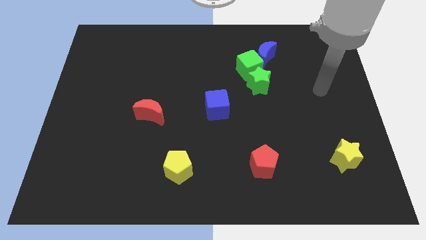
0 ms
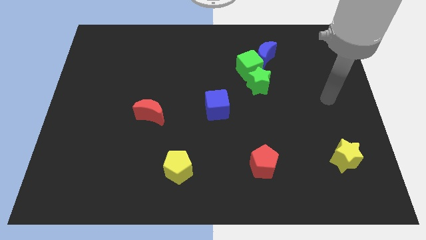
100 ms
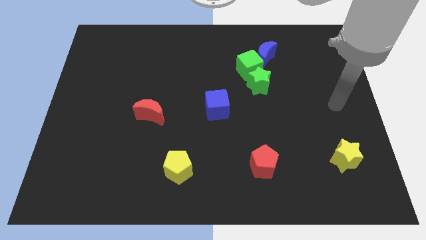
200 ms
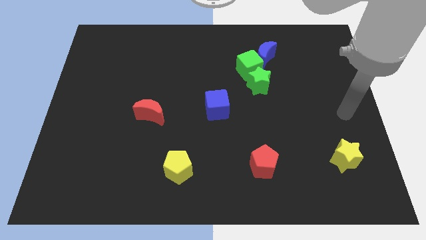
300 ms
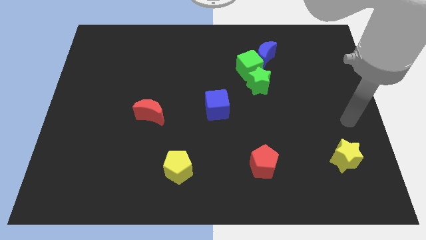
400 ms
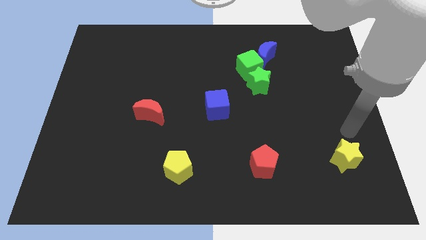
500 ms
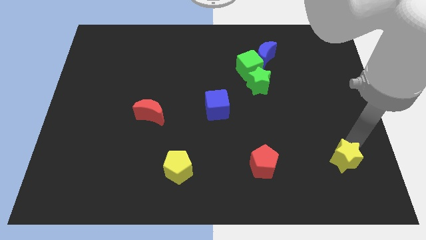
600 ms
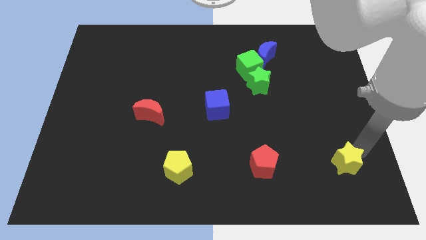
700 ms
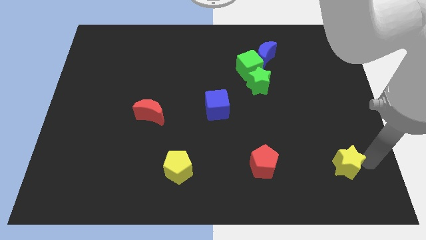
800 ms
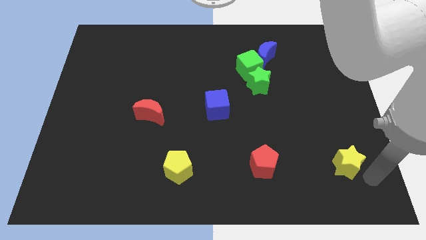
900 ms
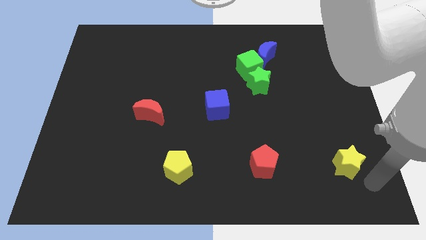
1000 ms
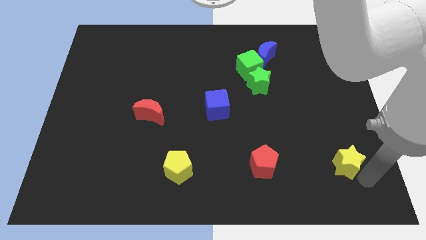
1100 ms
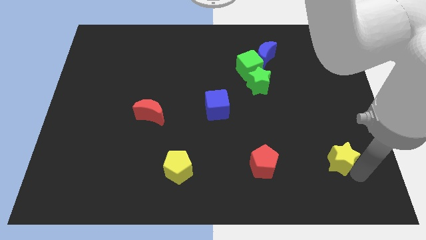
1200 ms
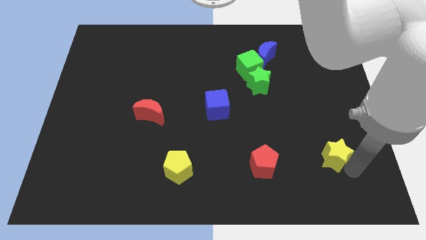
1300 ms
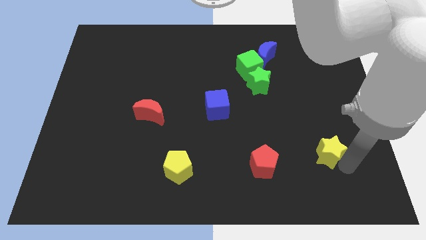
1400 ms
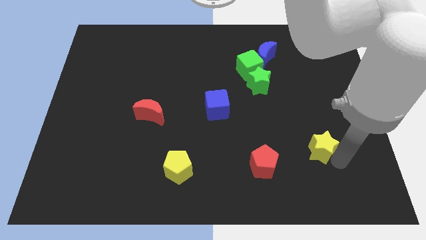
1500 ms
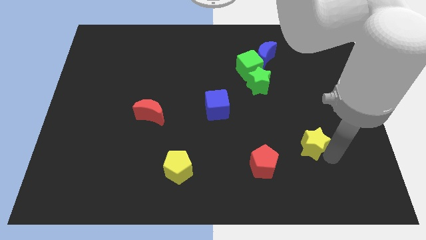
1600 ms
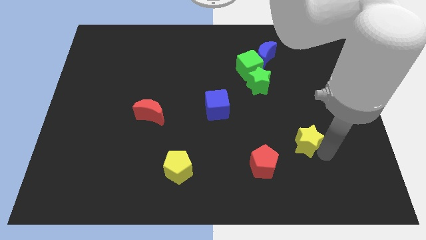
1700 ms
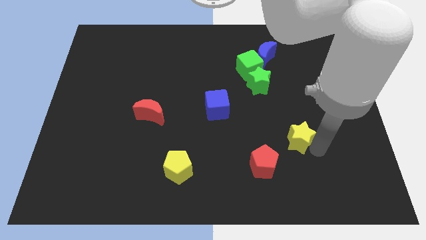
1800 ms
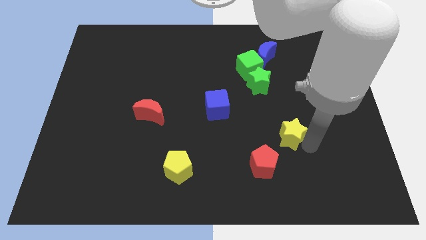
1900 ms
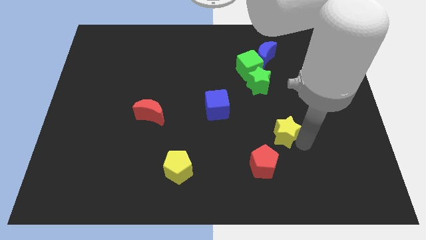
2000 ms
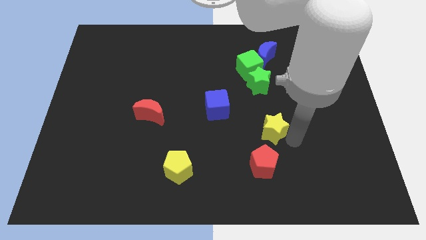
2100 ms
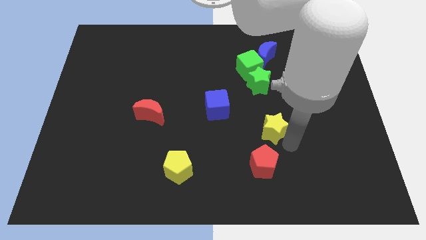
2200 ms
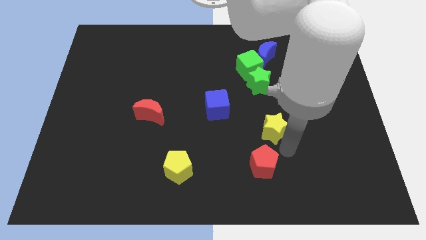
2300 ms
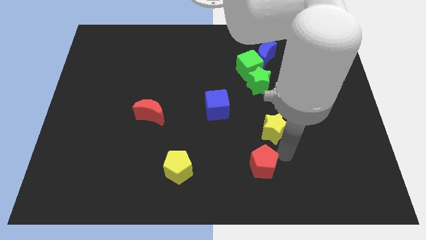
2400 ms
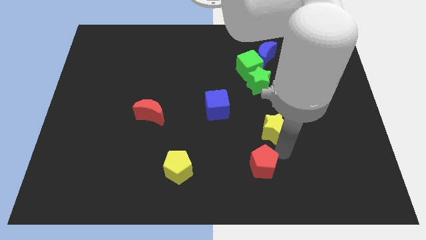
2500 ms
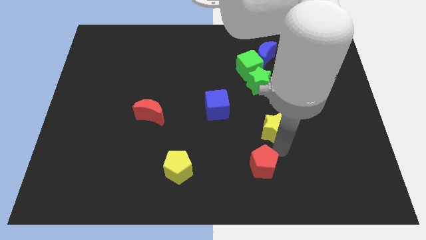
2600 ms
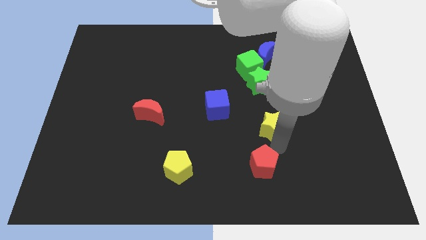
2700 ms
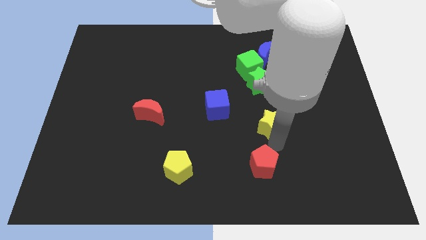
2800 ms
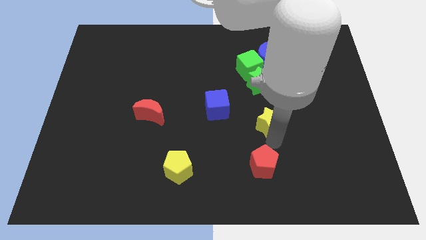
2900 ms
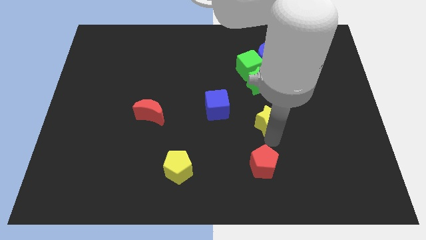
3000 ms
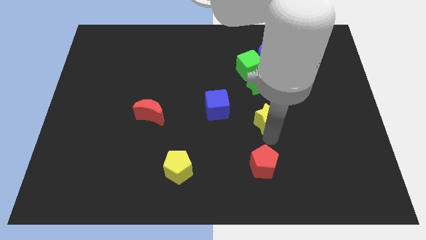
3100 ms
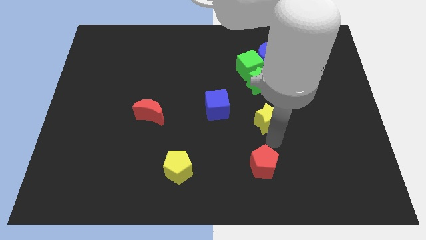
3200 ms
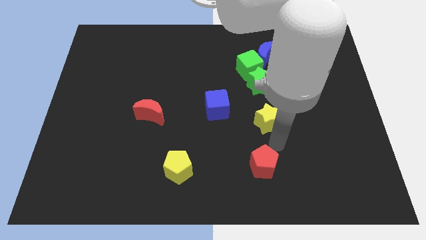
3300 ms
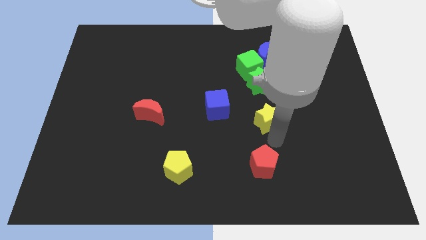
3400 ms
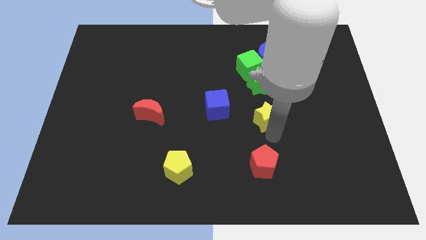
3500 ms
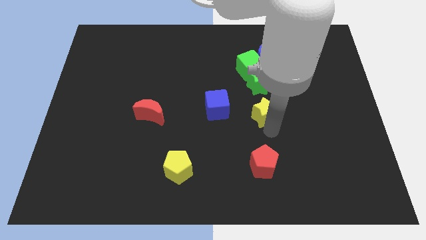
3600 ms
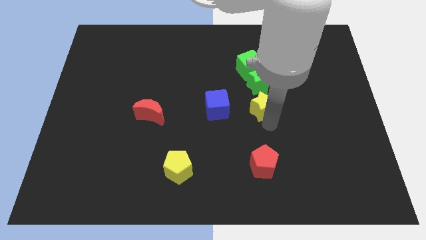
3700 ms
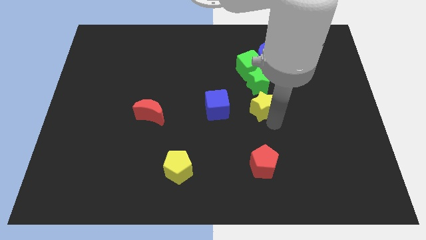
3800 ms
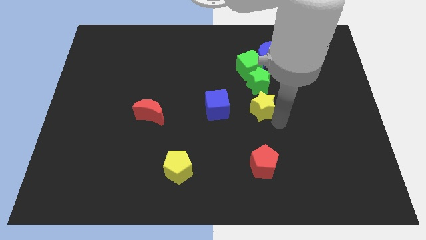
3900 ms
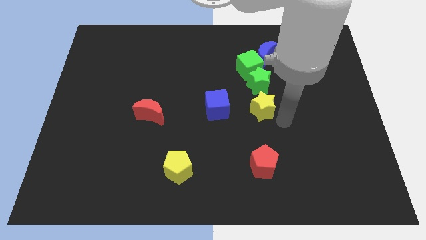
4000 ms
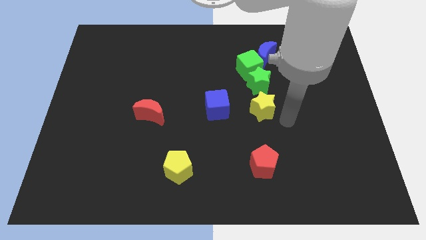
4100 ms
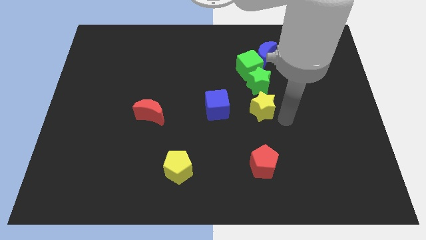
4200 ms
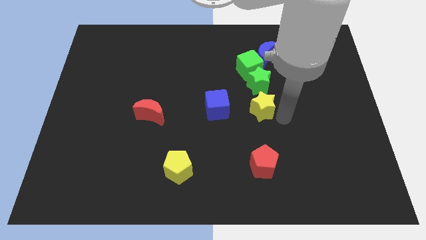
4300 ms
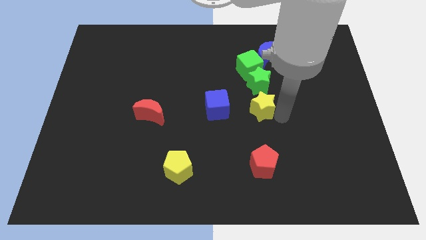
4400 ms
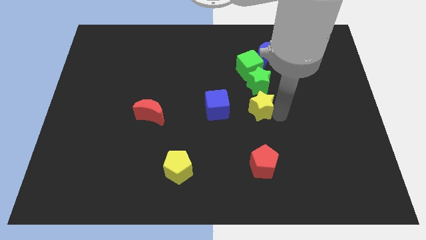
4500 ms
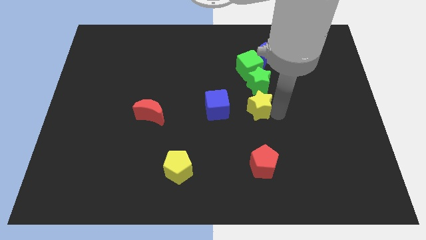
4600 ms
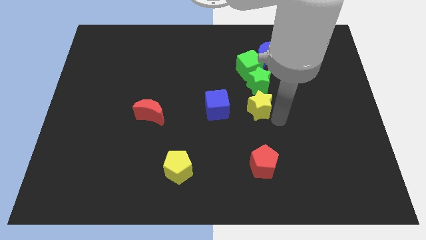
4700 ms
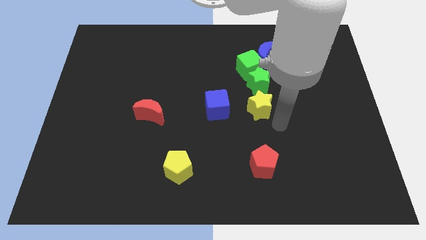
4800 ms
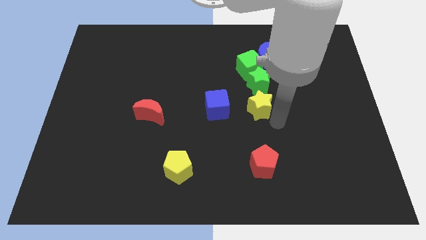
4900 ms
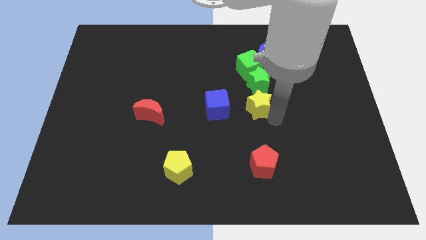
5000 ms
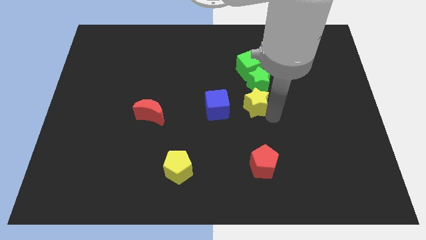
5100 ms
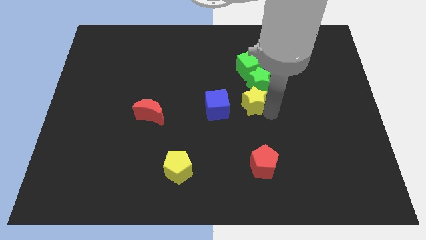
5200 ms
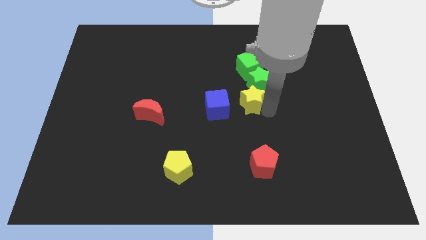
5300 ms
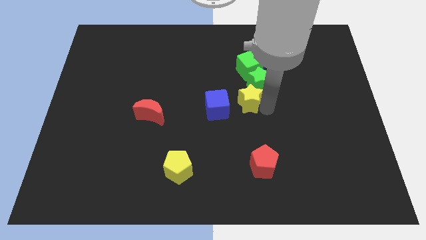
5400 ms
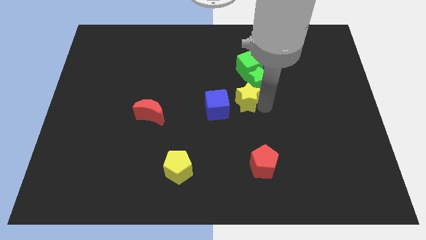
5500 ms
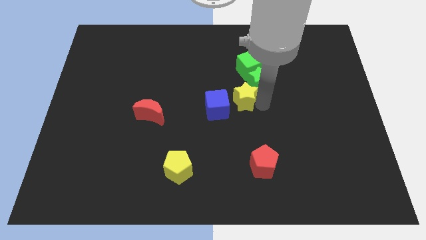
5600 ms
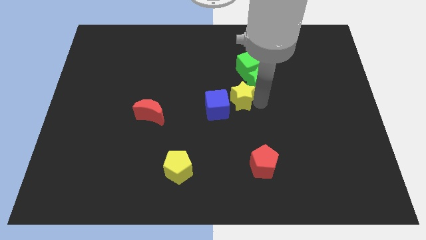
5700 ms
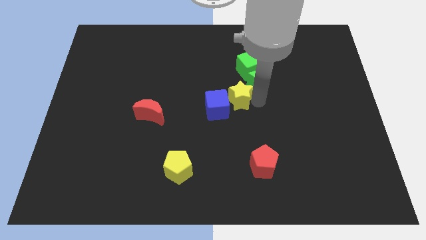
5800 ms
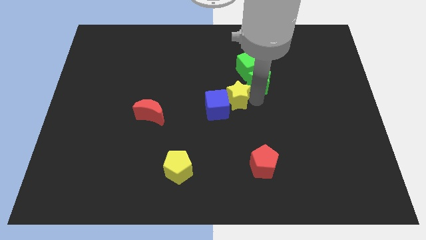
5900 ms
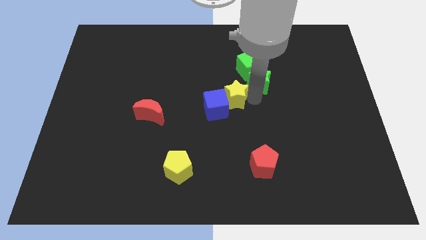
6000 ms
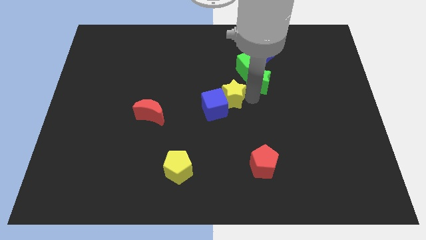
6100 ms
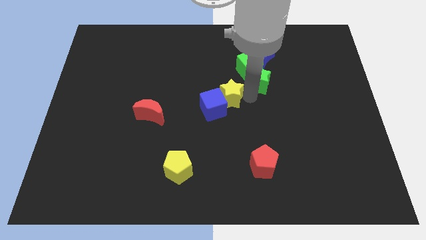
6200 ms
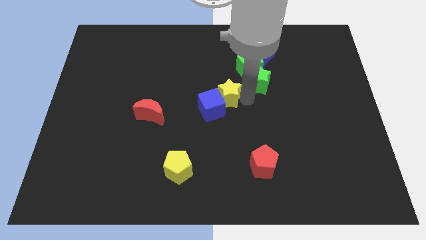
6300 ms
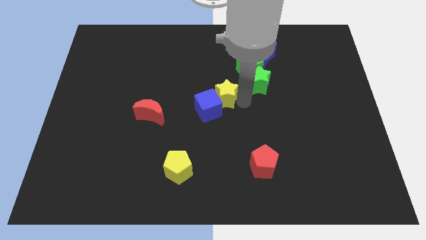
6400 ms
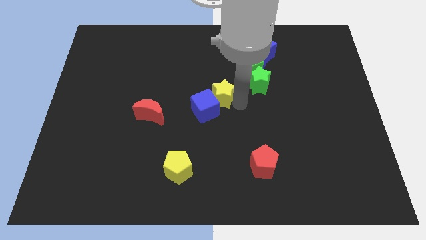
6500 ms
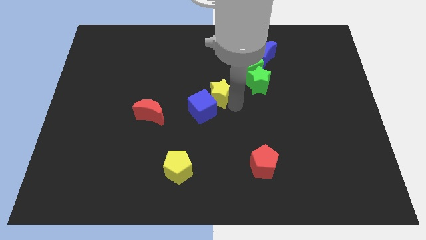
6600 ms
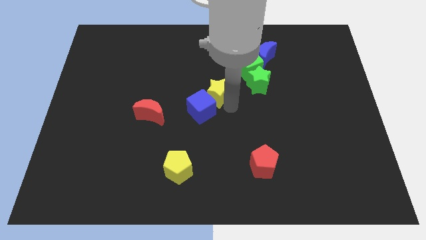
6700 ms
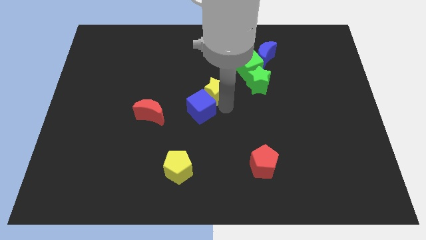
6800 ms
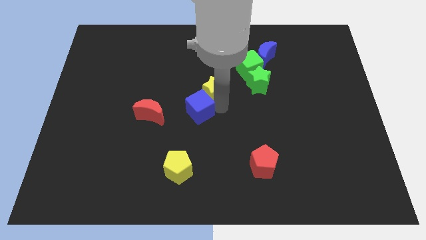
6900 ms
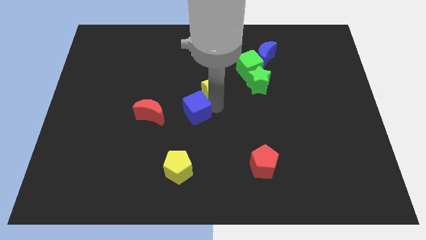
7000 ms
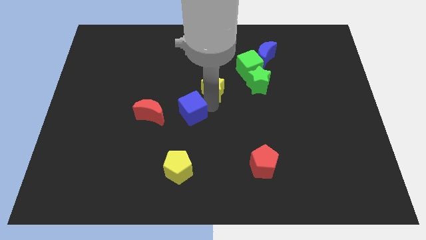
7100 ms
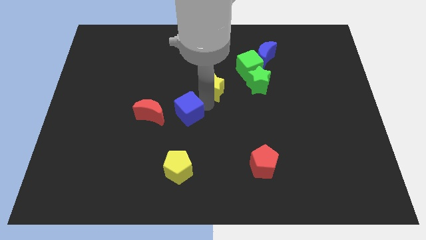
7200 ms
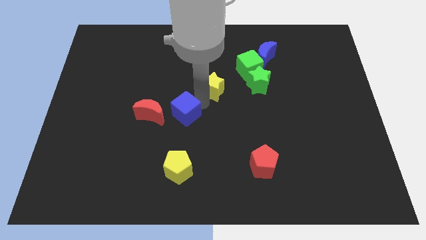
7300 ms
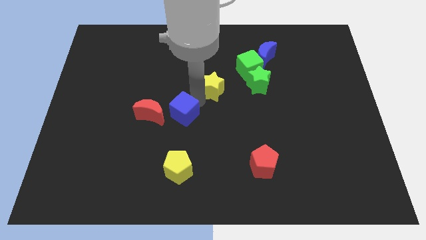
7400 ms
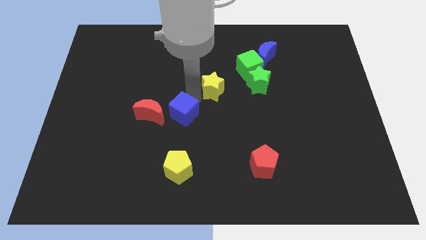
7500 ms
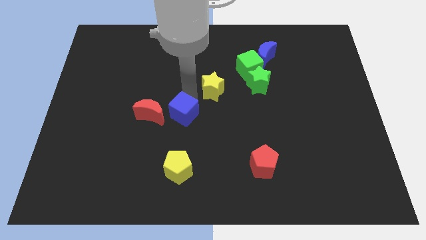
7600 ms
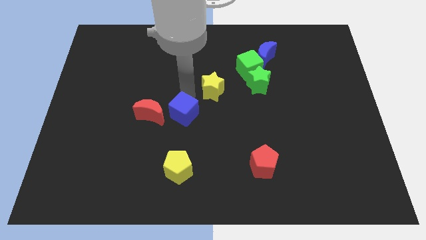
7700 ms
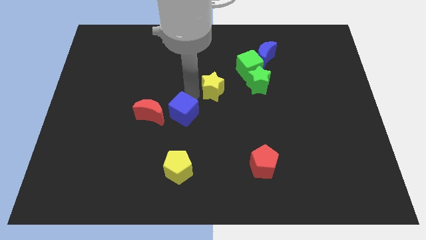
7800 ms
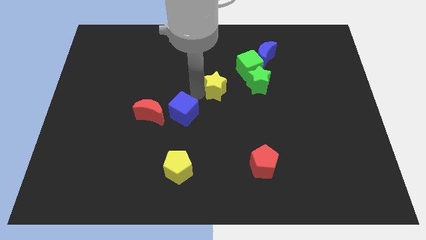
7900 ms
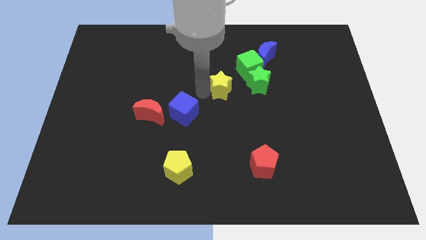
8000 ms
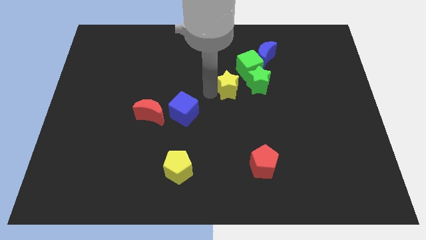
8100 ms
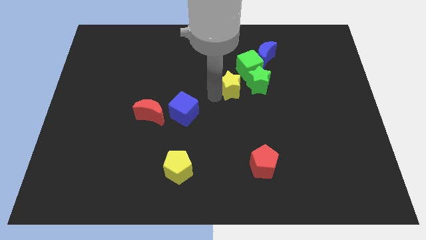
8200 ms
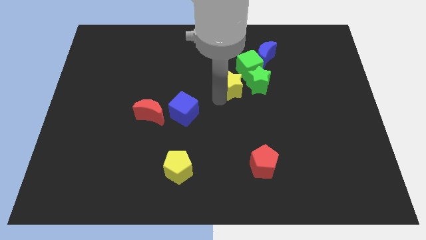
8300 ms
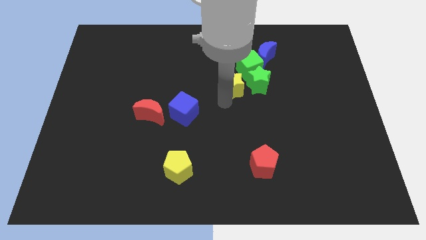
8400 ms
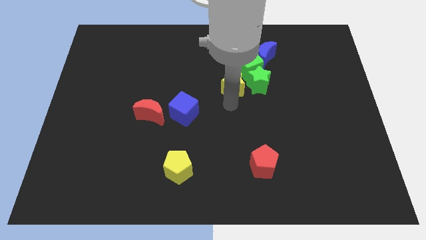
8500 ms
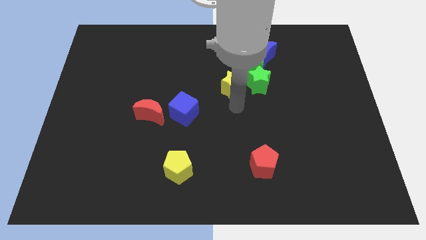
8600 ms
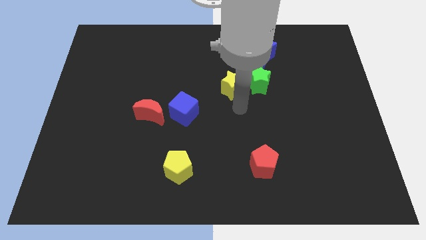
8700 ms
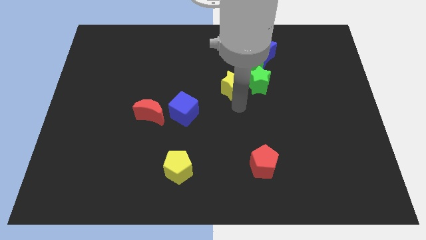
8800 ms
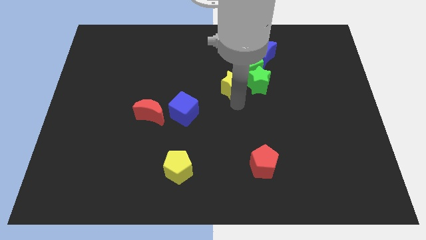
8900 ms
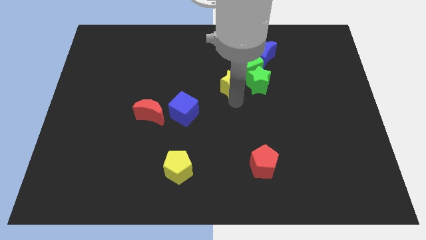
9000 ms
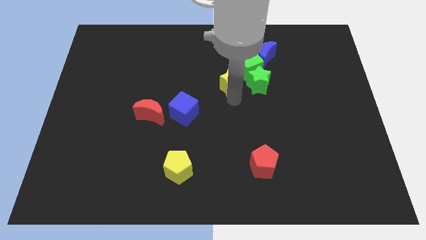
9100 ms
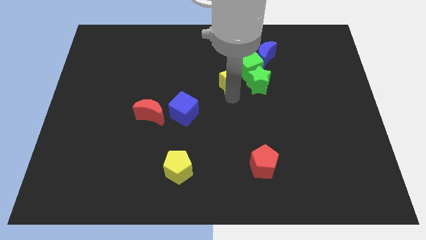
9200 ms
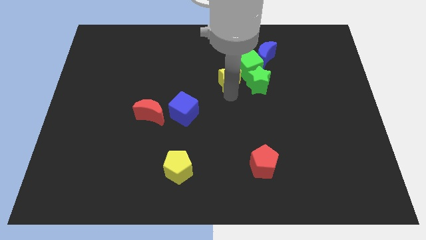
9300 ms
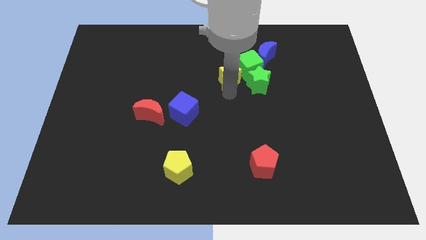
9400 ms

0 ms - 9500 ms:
put the yellow star next to the green cube
